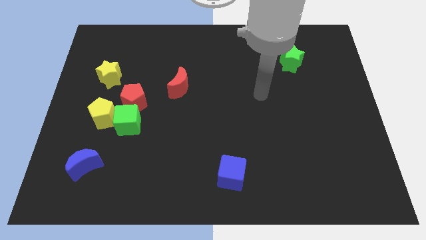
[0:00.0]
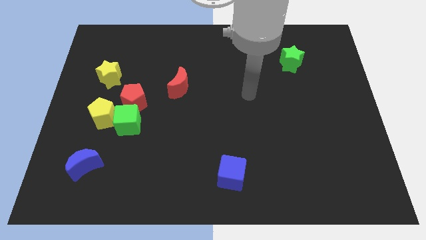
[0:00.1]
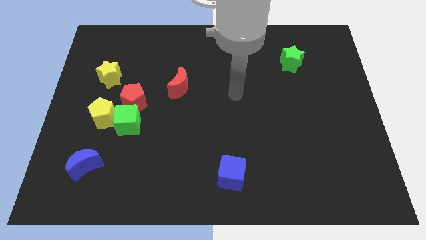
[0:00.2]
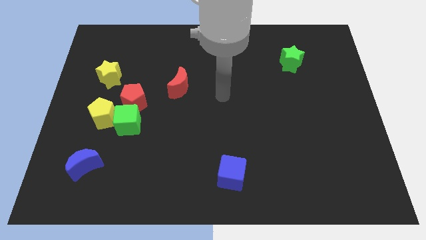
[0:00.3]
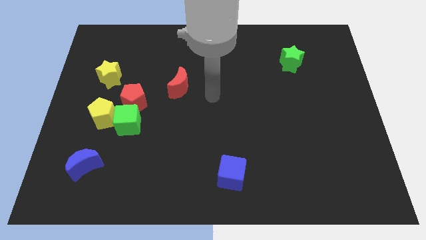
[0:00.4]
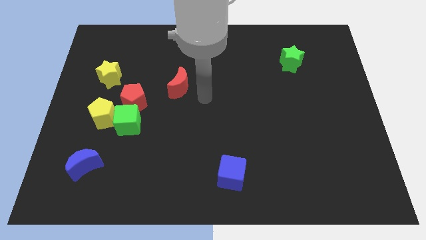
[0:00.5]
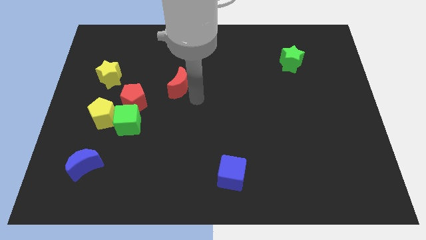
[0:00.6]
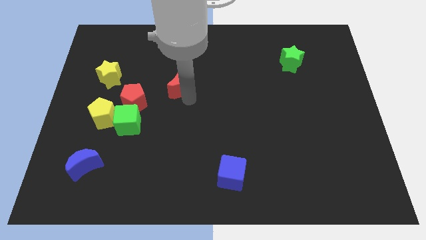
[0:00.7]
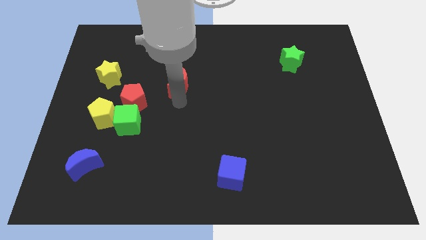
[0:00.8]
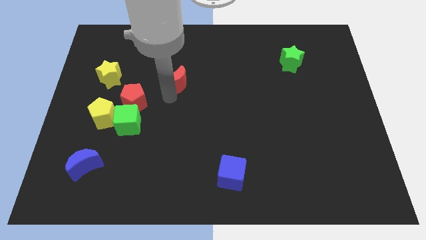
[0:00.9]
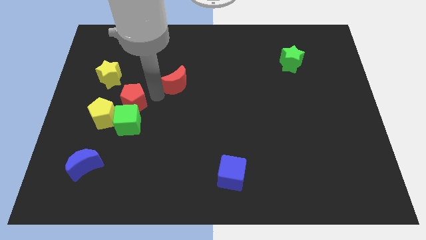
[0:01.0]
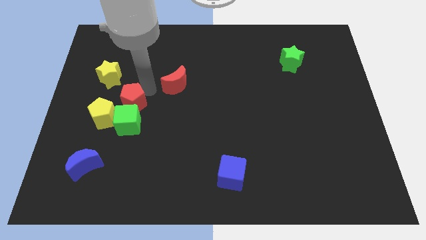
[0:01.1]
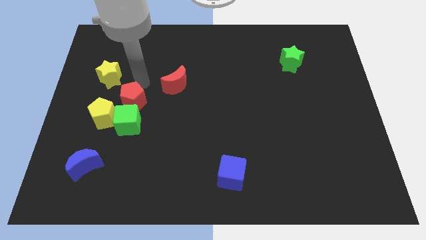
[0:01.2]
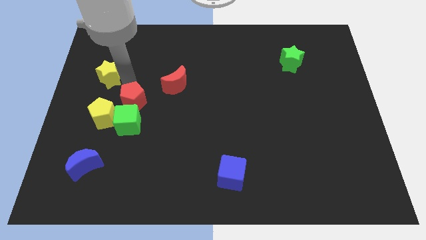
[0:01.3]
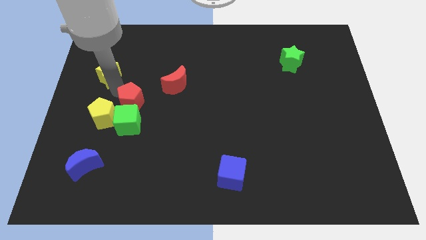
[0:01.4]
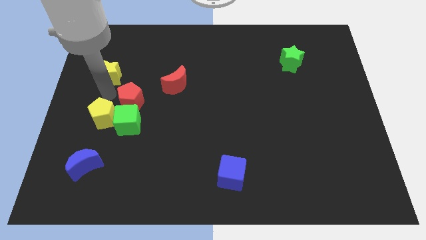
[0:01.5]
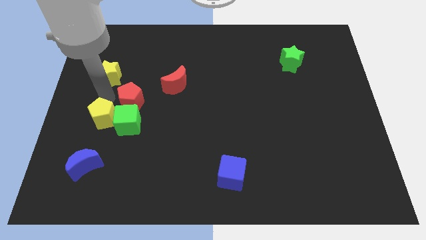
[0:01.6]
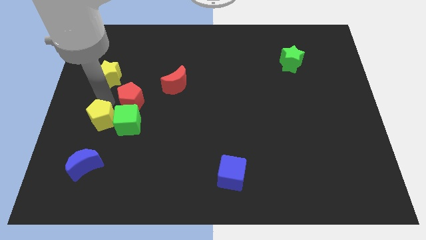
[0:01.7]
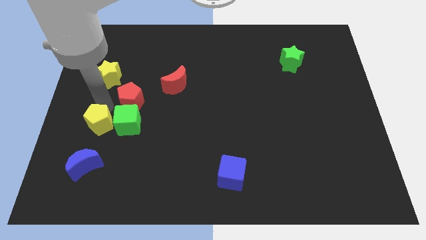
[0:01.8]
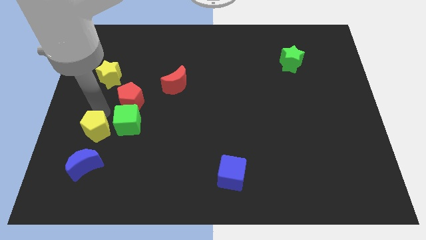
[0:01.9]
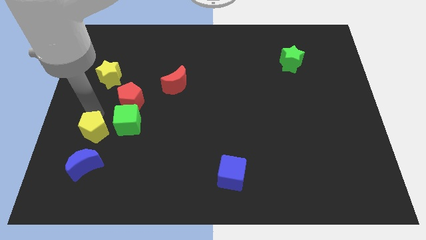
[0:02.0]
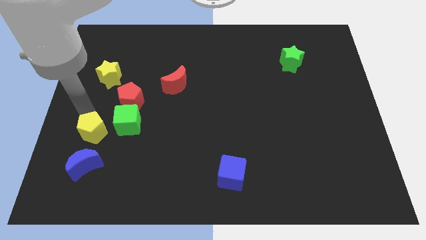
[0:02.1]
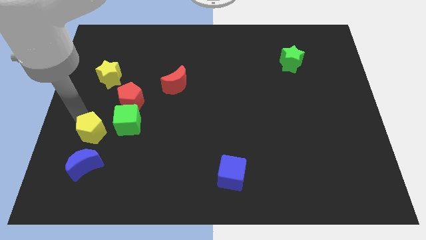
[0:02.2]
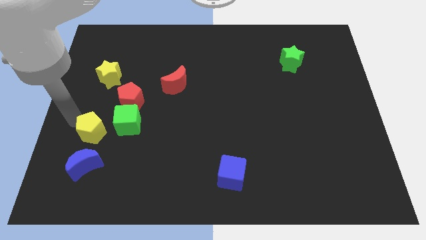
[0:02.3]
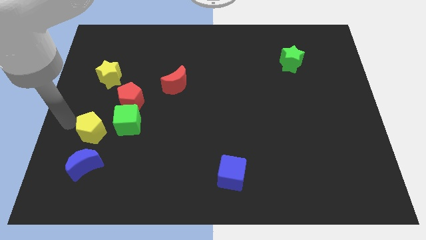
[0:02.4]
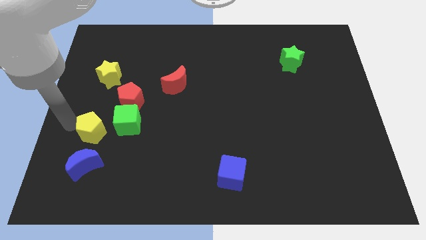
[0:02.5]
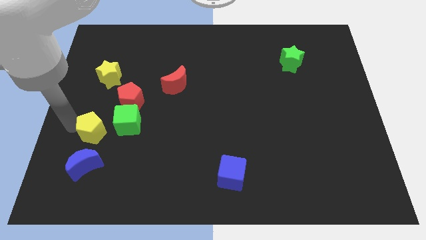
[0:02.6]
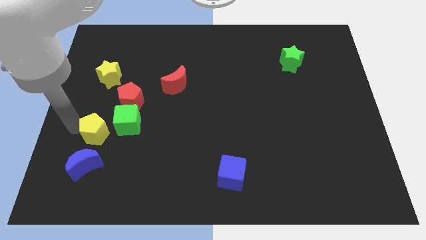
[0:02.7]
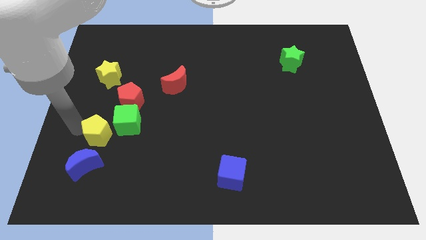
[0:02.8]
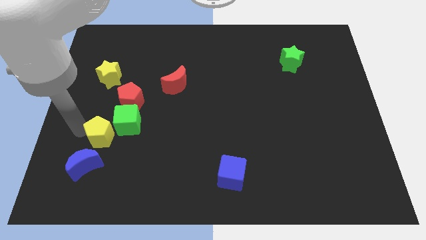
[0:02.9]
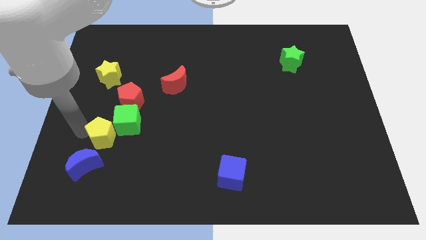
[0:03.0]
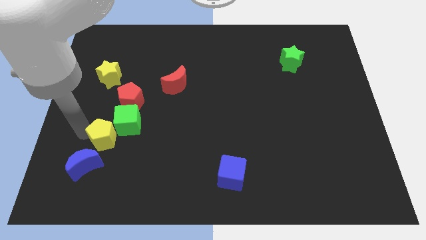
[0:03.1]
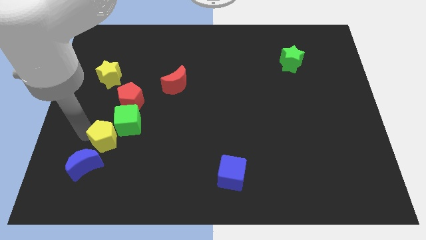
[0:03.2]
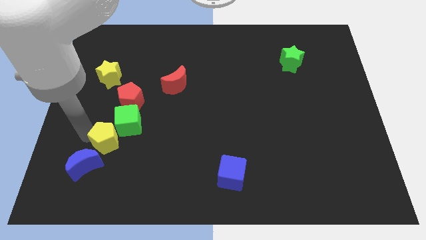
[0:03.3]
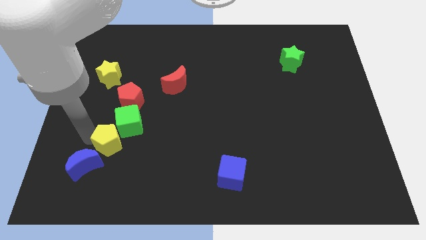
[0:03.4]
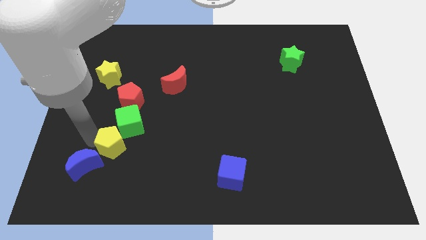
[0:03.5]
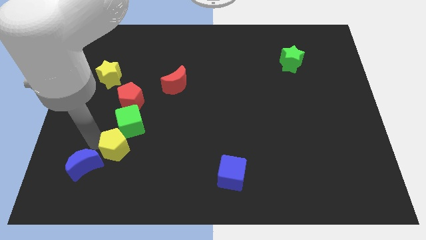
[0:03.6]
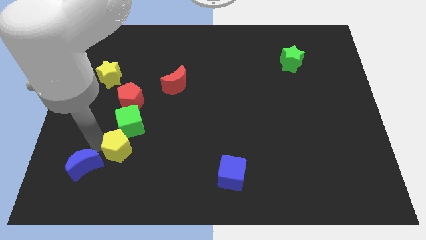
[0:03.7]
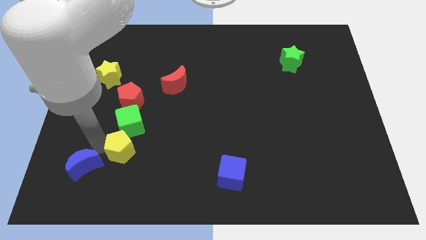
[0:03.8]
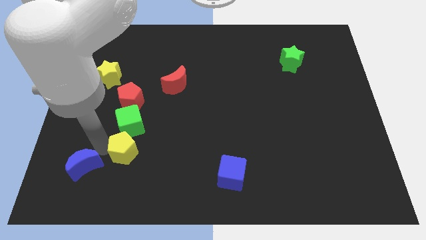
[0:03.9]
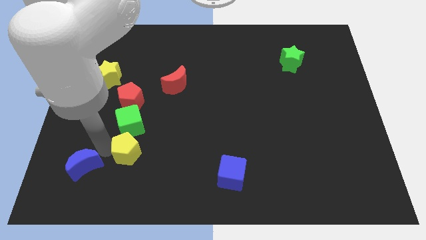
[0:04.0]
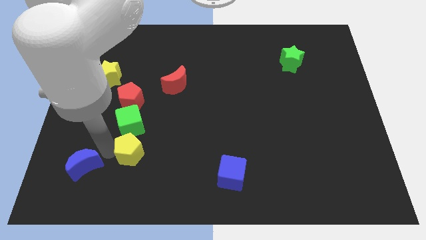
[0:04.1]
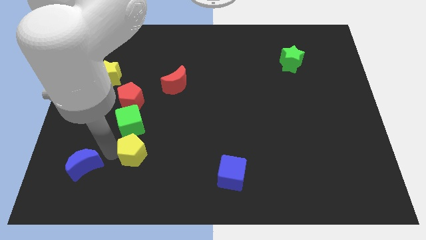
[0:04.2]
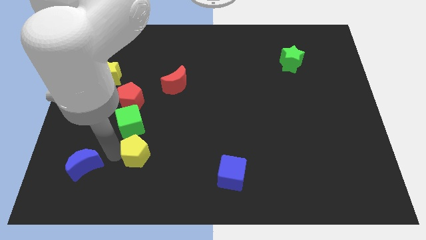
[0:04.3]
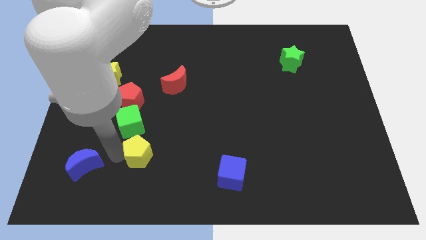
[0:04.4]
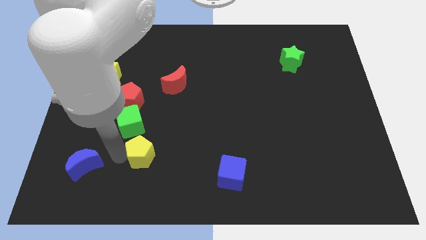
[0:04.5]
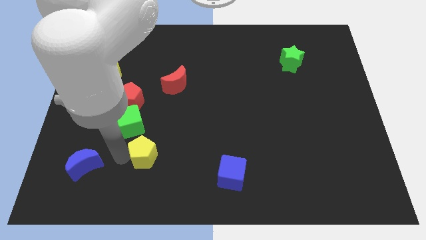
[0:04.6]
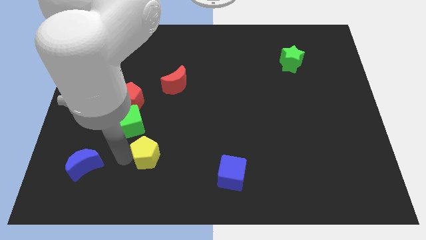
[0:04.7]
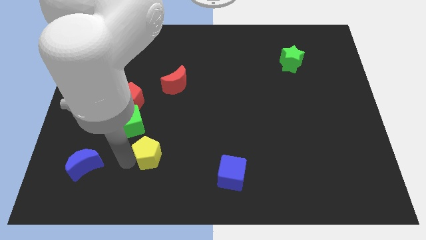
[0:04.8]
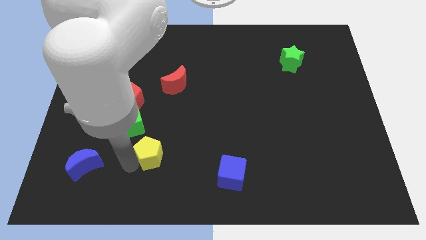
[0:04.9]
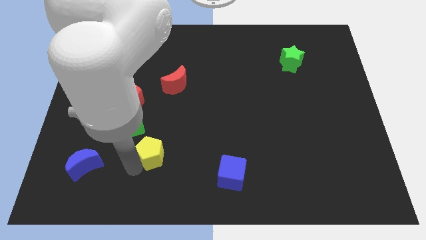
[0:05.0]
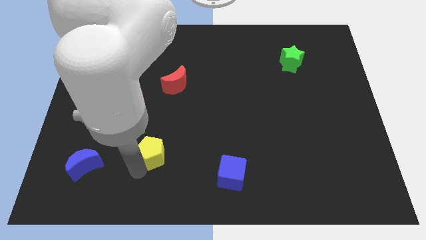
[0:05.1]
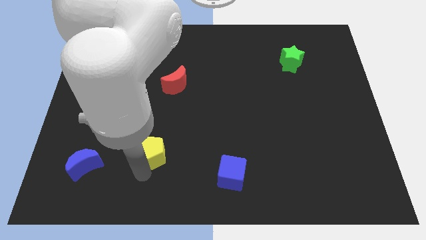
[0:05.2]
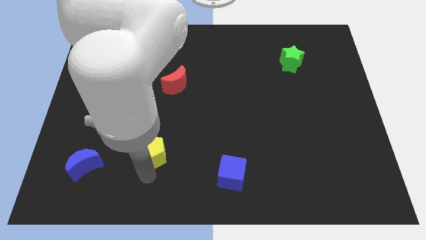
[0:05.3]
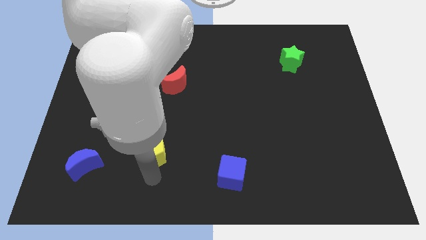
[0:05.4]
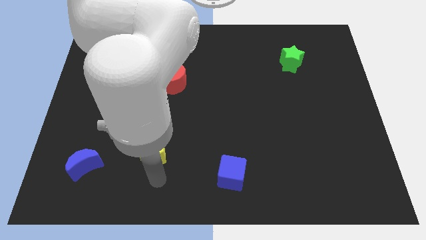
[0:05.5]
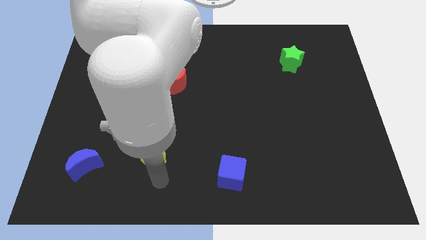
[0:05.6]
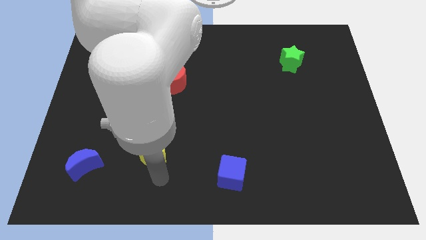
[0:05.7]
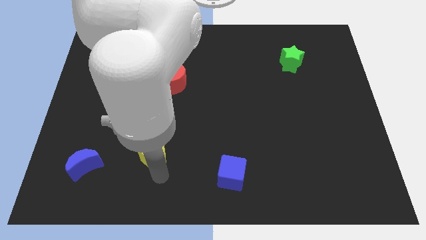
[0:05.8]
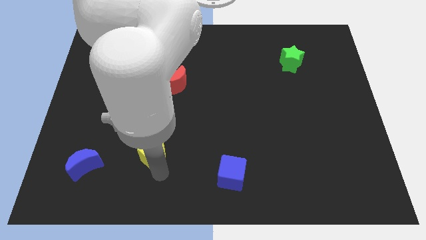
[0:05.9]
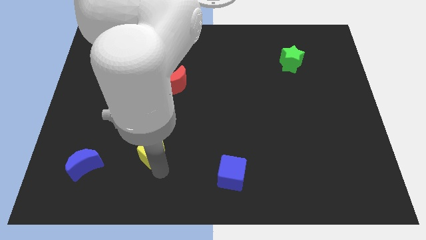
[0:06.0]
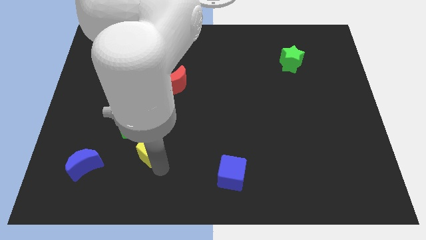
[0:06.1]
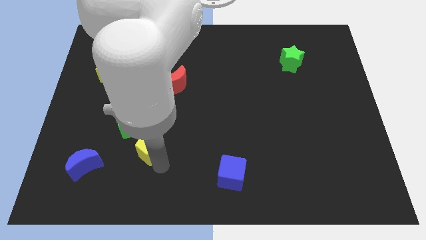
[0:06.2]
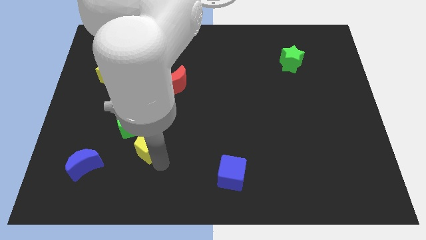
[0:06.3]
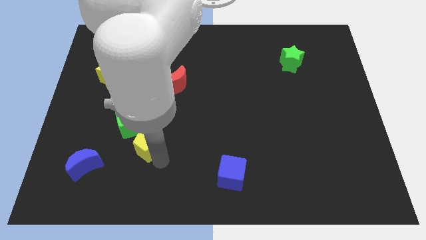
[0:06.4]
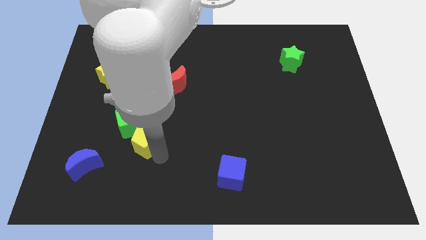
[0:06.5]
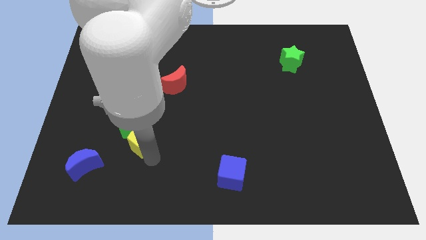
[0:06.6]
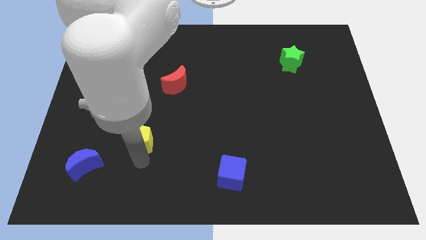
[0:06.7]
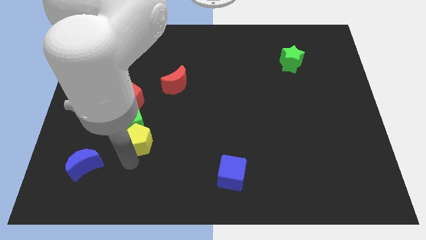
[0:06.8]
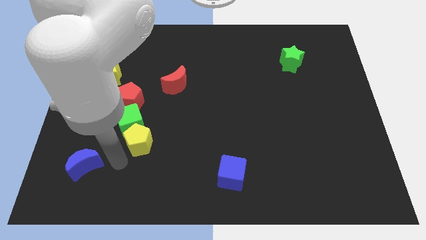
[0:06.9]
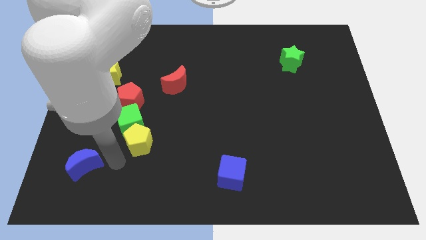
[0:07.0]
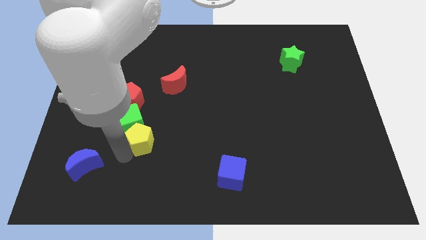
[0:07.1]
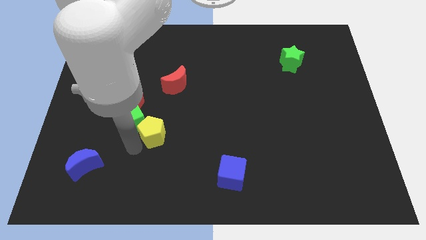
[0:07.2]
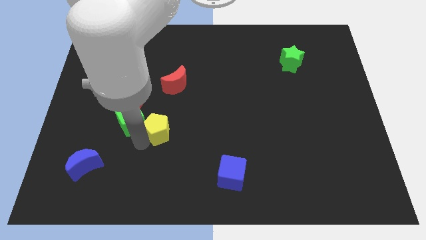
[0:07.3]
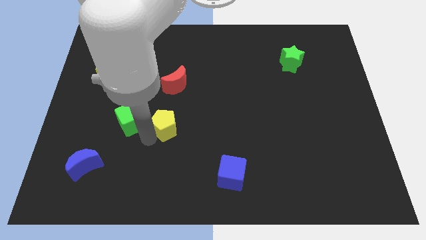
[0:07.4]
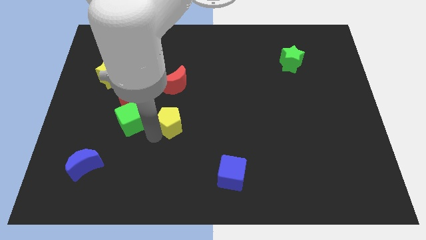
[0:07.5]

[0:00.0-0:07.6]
slide the yellow pentagon to the middle of the board
